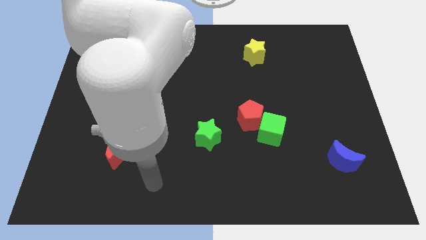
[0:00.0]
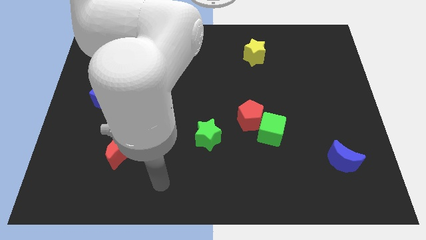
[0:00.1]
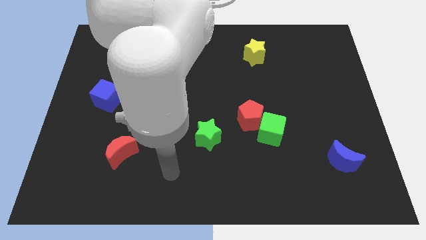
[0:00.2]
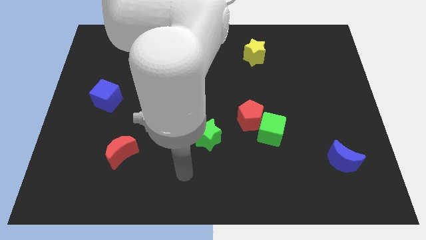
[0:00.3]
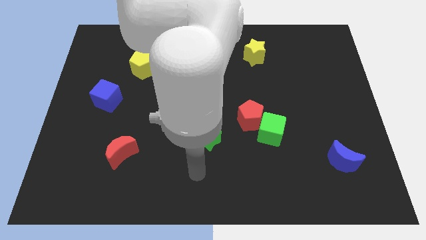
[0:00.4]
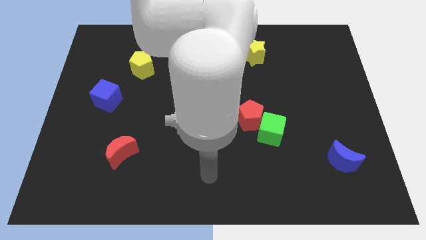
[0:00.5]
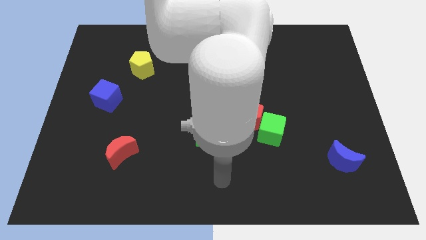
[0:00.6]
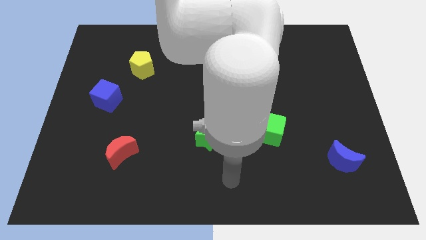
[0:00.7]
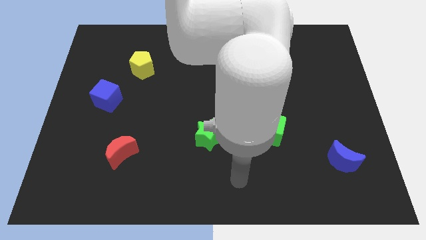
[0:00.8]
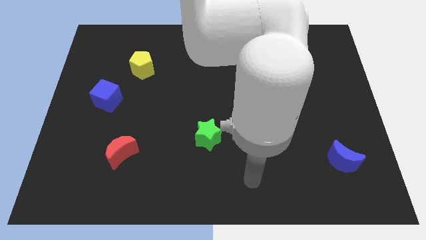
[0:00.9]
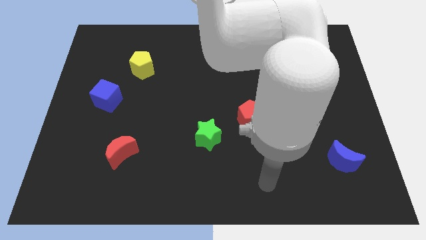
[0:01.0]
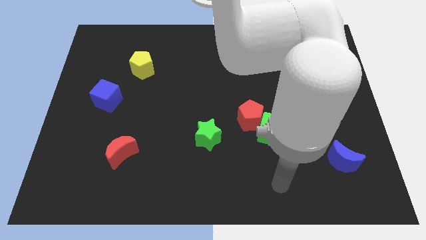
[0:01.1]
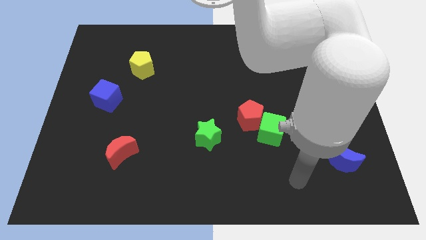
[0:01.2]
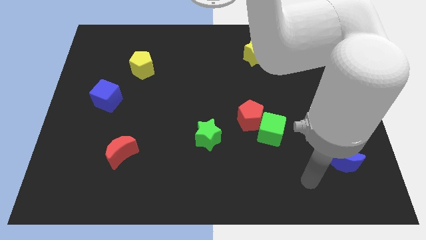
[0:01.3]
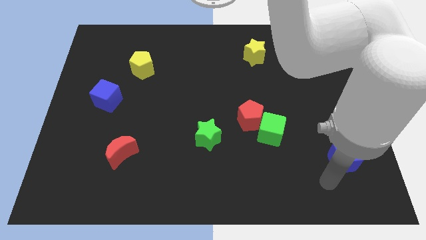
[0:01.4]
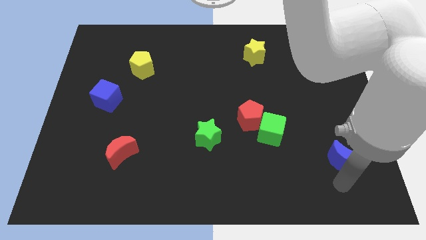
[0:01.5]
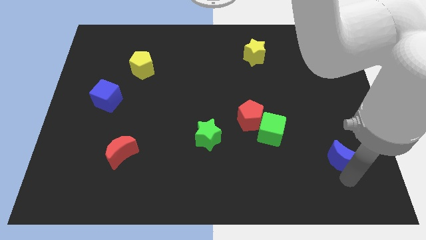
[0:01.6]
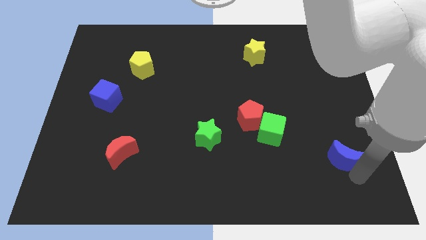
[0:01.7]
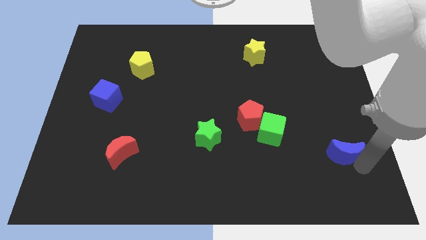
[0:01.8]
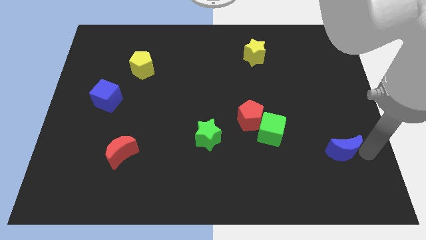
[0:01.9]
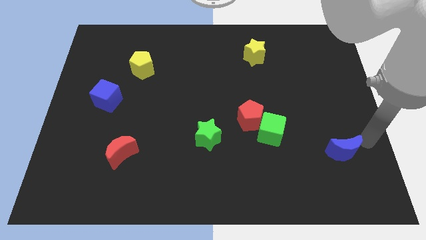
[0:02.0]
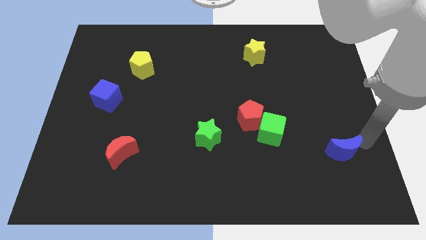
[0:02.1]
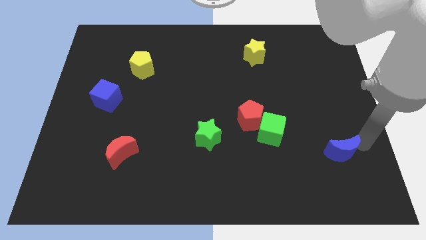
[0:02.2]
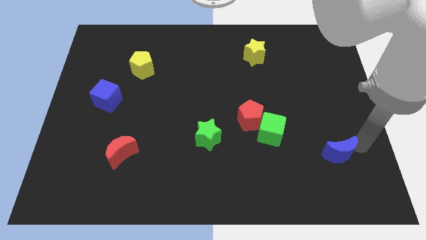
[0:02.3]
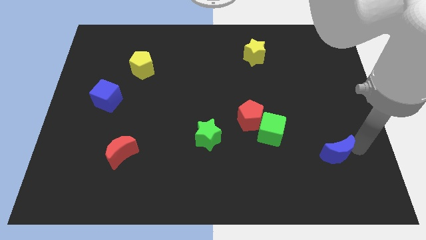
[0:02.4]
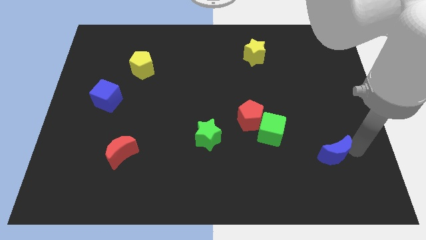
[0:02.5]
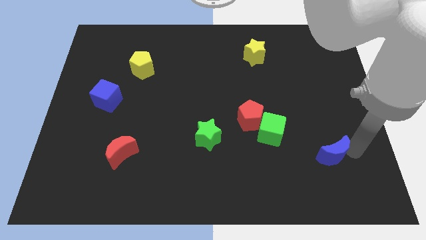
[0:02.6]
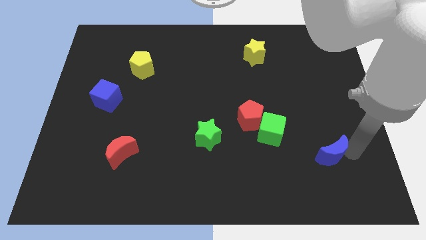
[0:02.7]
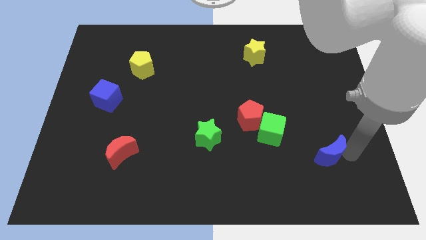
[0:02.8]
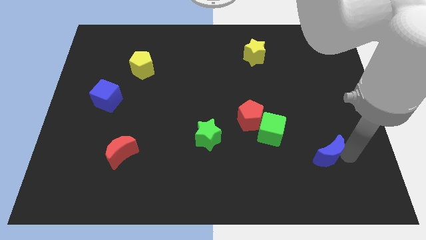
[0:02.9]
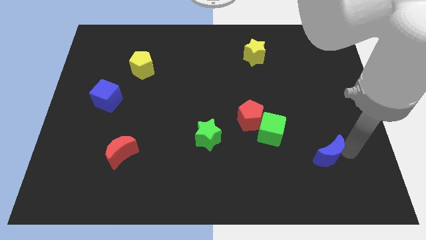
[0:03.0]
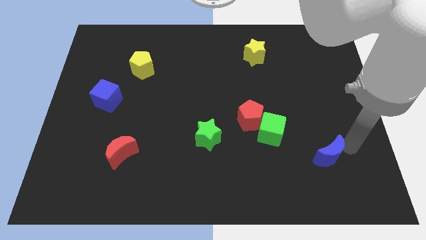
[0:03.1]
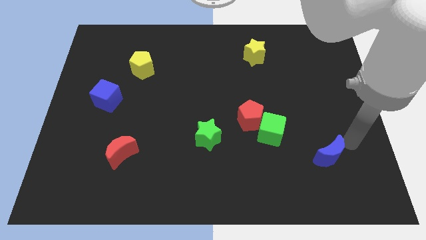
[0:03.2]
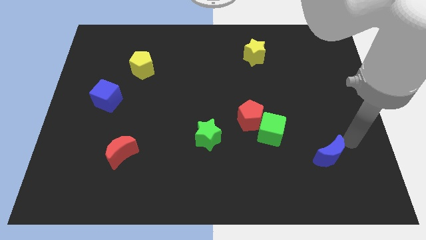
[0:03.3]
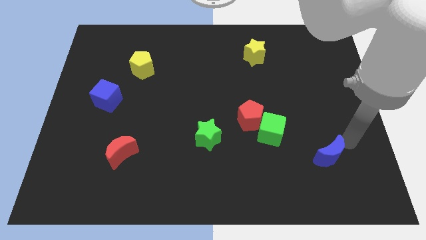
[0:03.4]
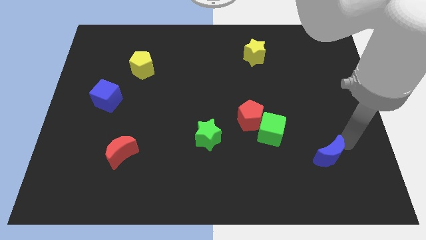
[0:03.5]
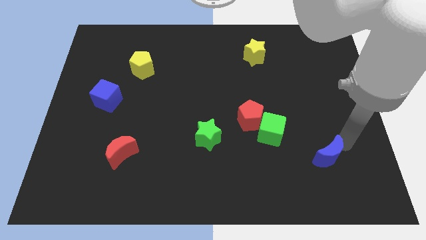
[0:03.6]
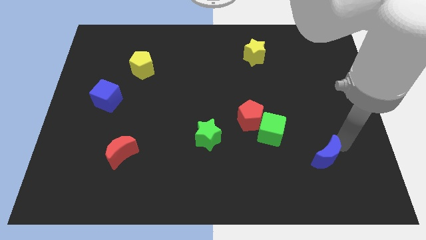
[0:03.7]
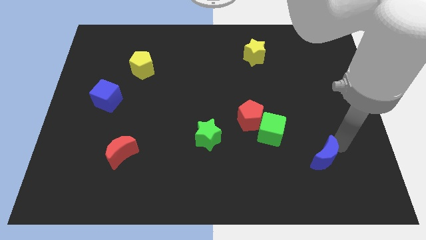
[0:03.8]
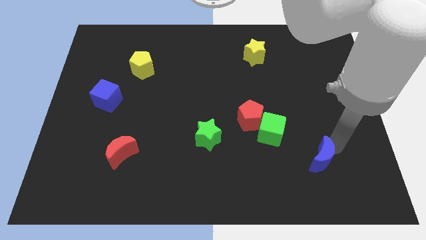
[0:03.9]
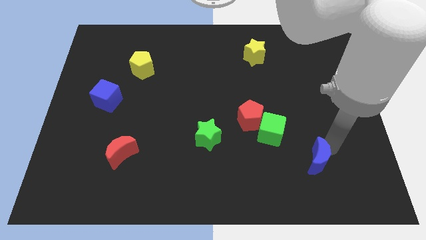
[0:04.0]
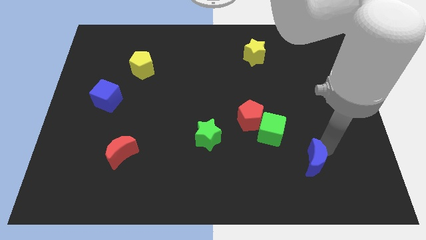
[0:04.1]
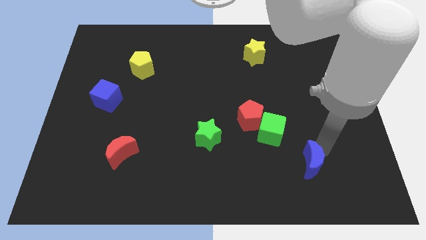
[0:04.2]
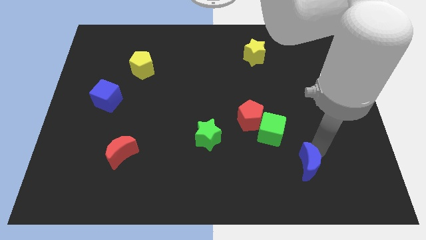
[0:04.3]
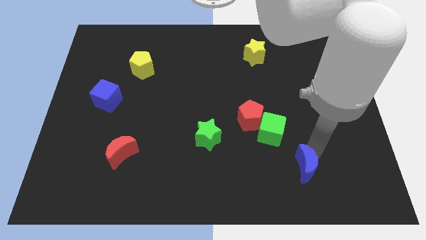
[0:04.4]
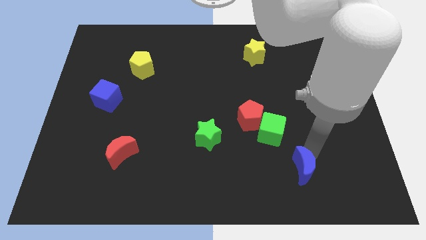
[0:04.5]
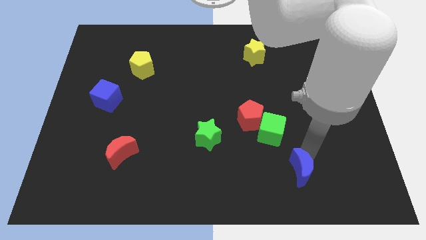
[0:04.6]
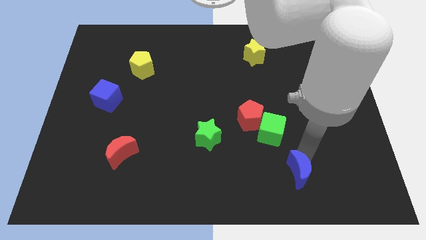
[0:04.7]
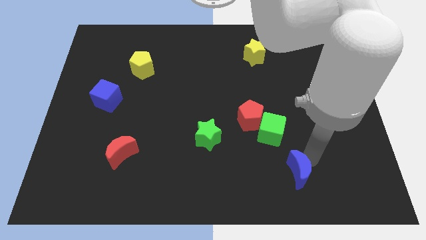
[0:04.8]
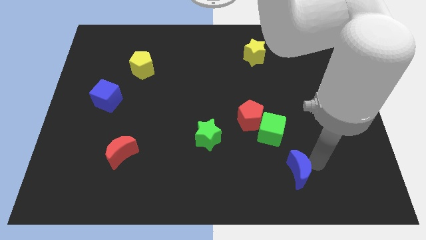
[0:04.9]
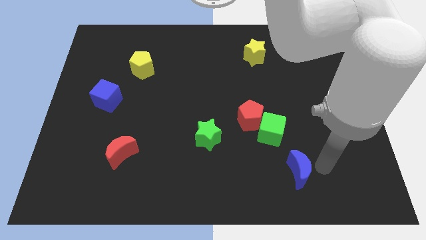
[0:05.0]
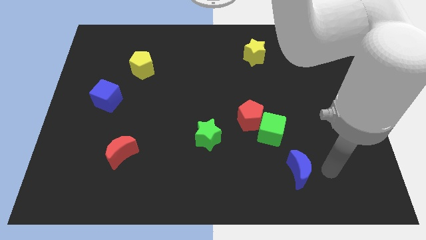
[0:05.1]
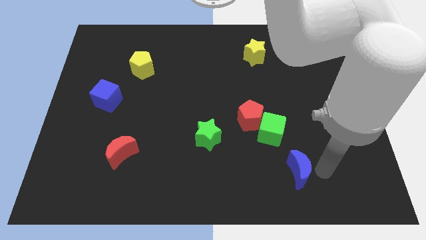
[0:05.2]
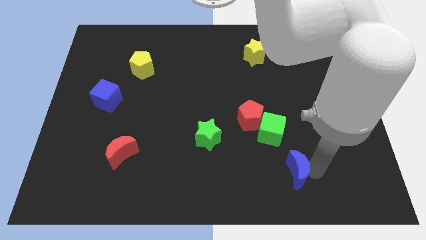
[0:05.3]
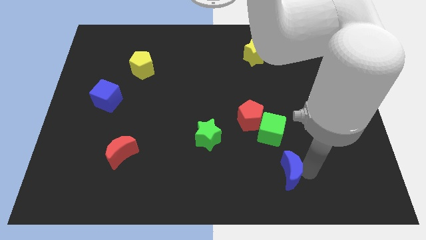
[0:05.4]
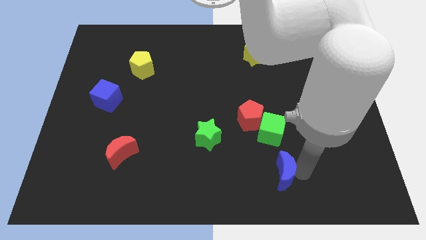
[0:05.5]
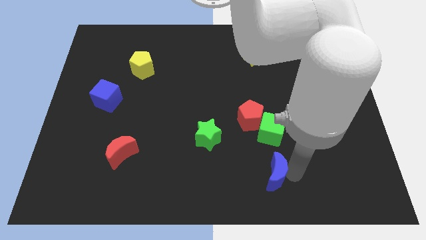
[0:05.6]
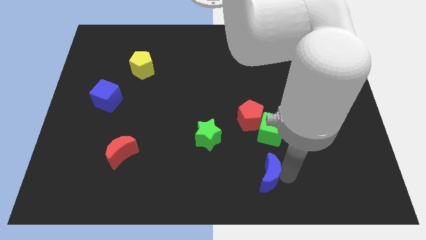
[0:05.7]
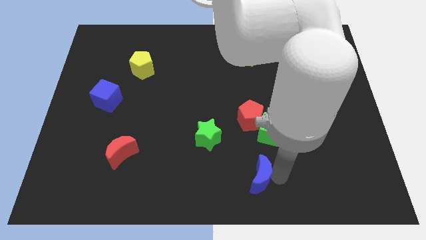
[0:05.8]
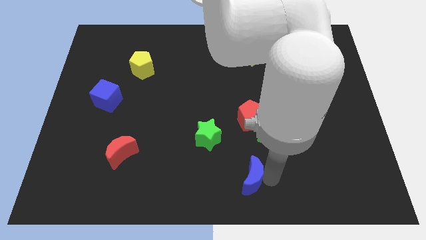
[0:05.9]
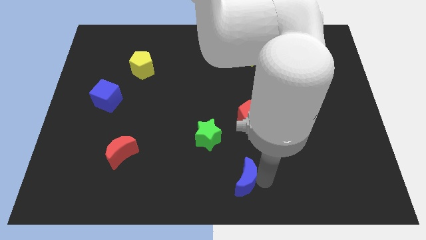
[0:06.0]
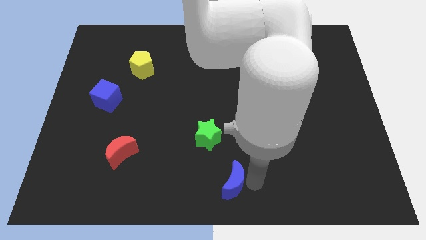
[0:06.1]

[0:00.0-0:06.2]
slide the blue moon left

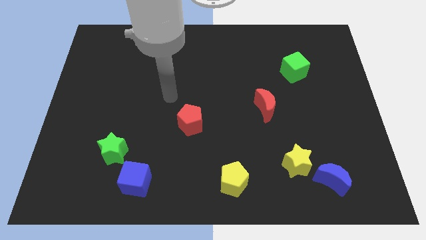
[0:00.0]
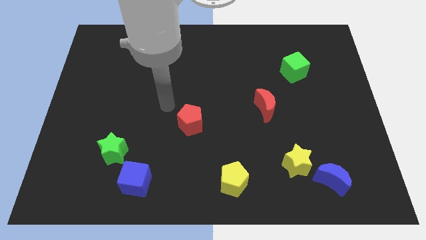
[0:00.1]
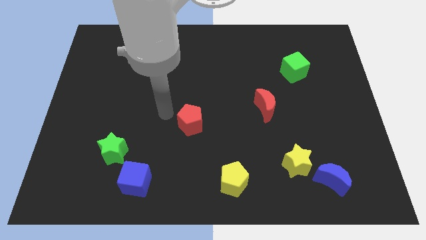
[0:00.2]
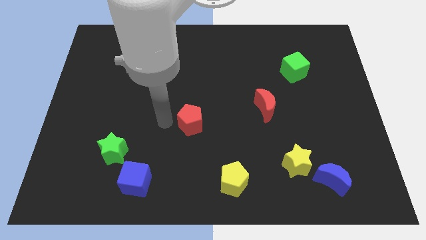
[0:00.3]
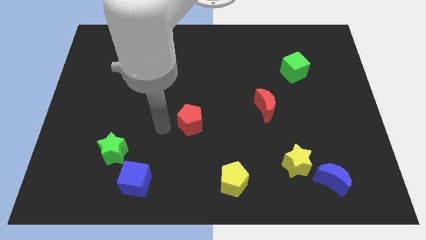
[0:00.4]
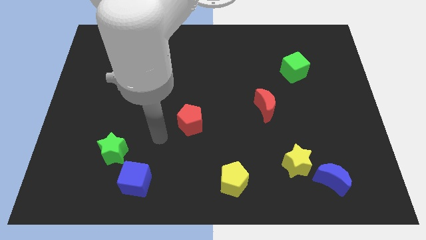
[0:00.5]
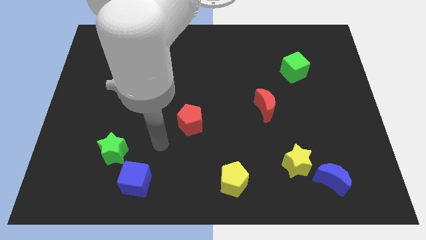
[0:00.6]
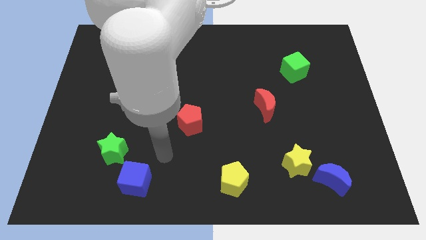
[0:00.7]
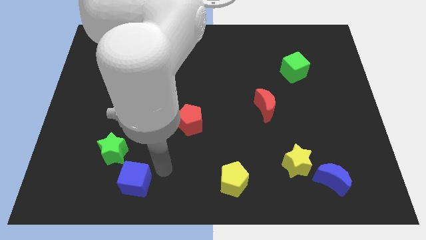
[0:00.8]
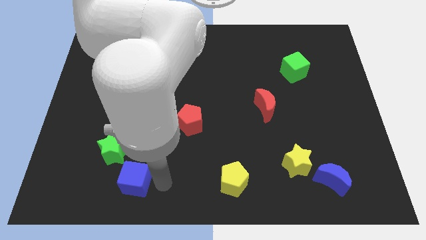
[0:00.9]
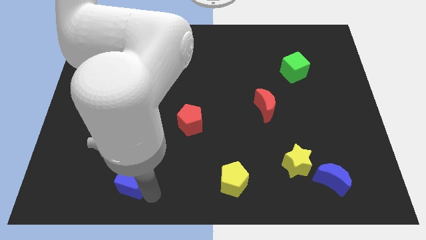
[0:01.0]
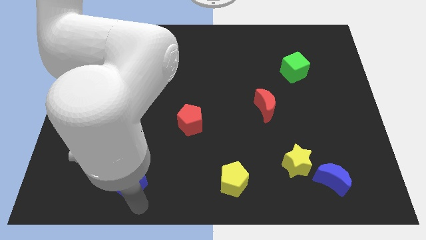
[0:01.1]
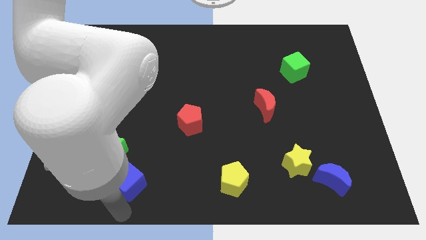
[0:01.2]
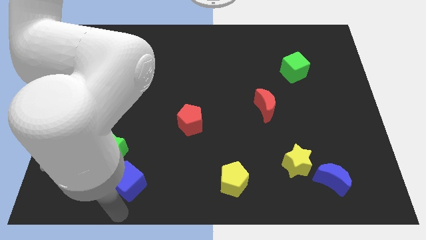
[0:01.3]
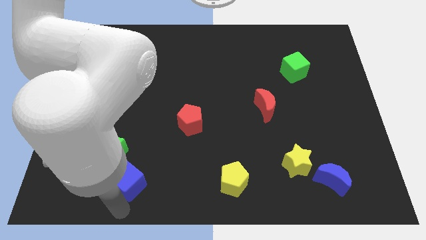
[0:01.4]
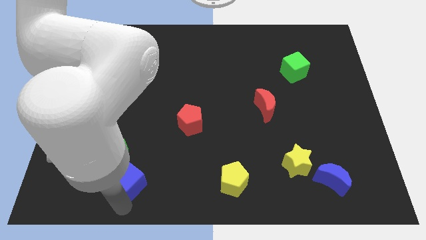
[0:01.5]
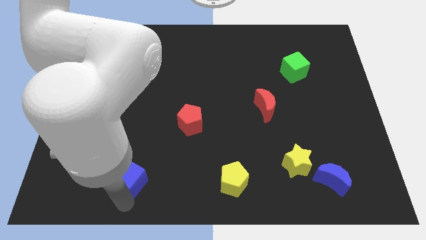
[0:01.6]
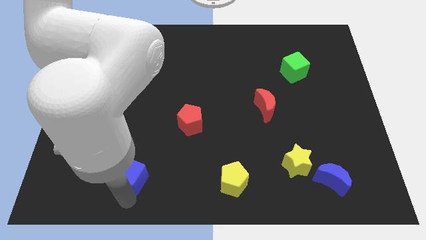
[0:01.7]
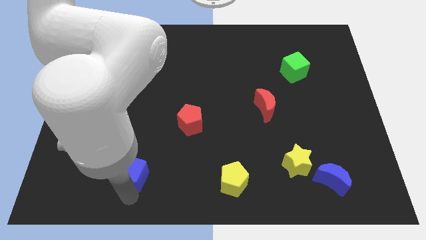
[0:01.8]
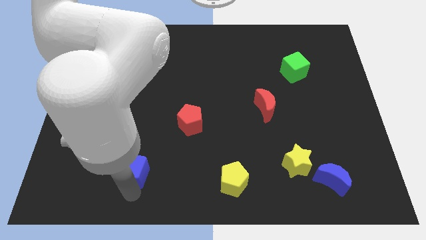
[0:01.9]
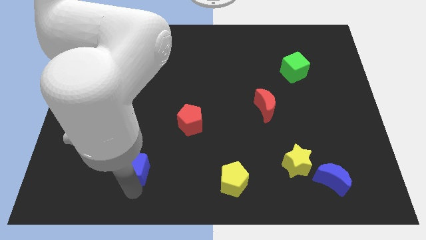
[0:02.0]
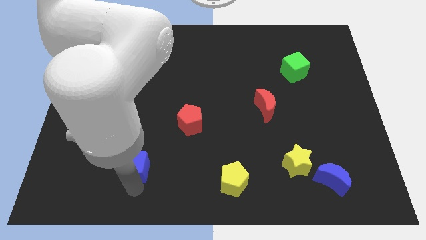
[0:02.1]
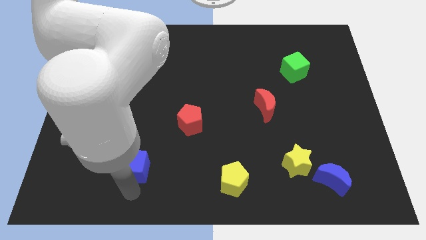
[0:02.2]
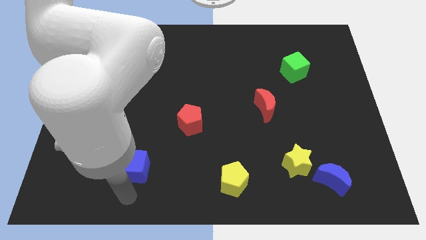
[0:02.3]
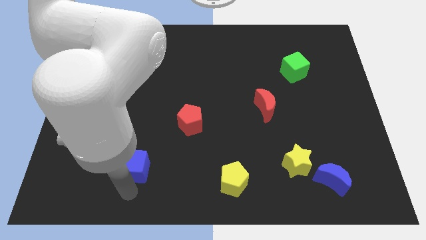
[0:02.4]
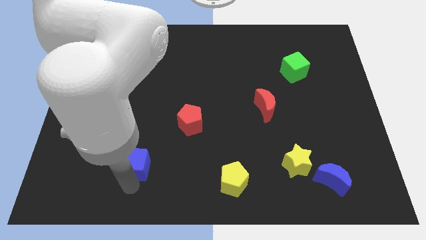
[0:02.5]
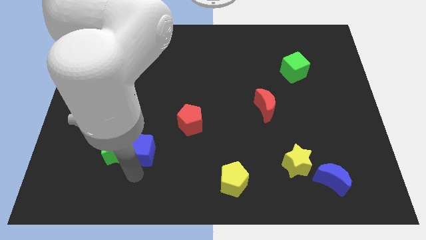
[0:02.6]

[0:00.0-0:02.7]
slightly push the blue cube up
